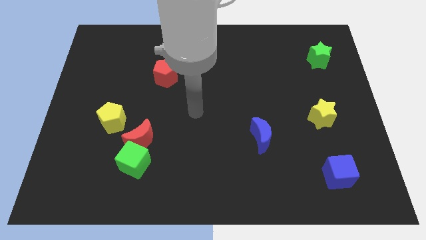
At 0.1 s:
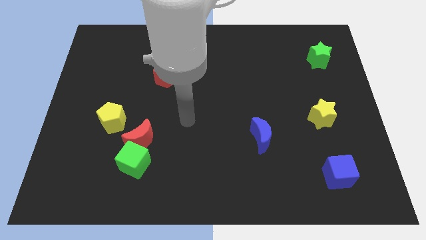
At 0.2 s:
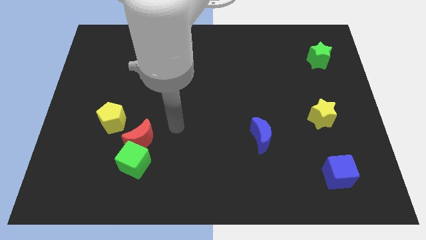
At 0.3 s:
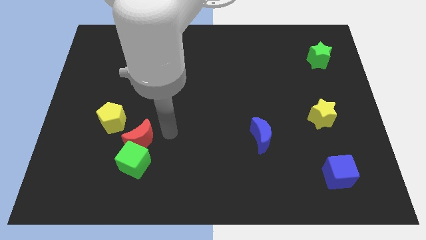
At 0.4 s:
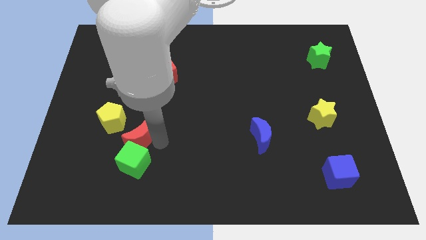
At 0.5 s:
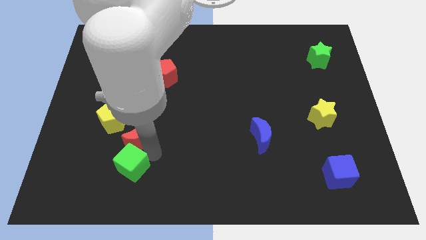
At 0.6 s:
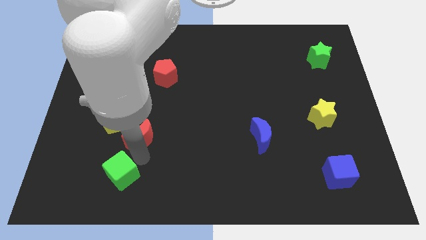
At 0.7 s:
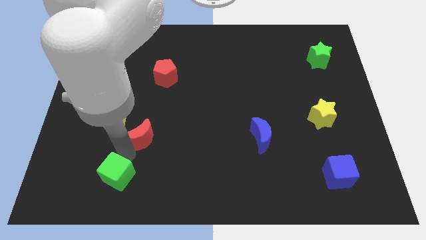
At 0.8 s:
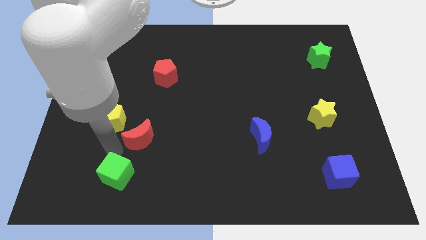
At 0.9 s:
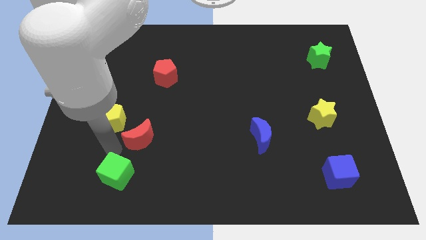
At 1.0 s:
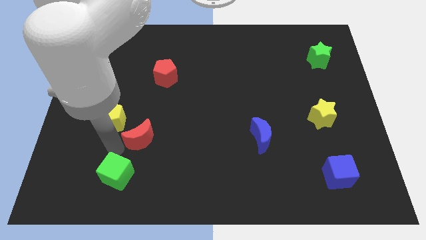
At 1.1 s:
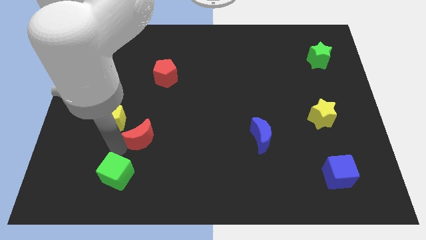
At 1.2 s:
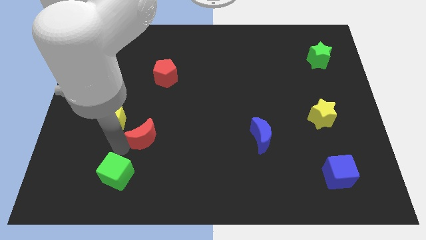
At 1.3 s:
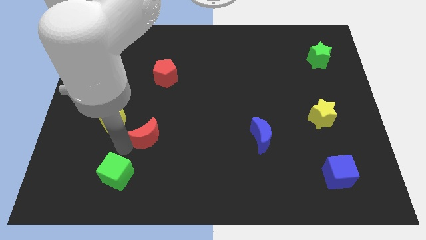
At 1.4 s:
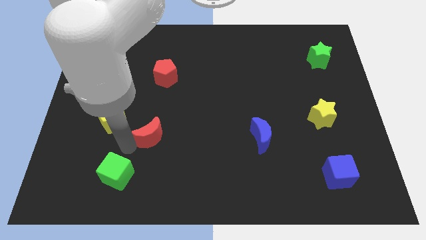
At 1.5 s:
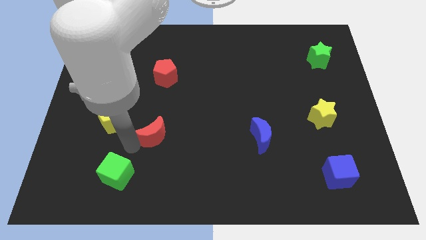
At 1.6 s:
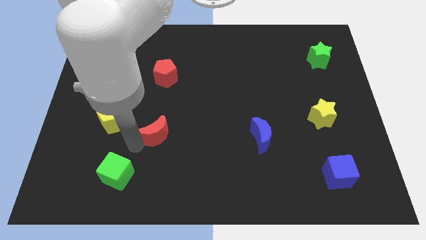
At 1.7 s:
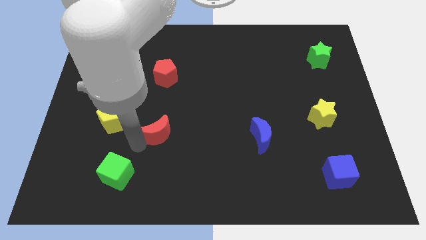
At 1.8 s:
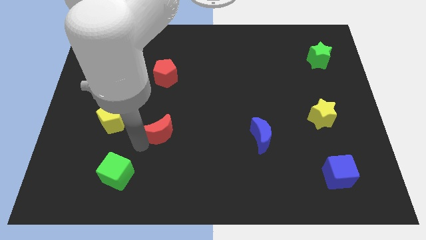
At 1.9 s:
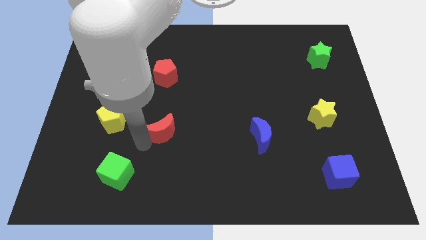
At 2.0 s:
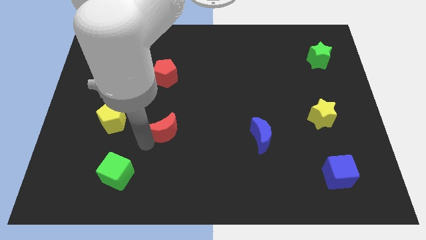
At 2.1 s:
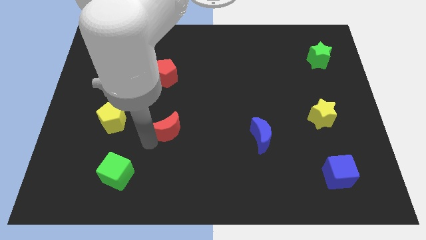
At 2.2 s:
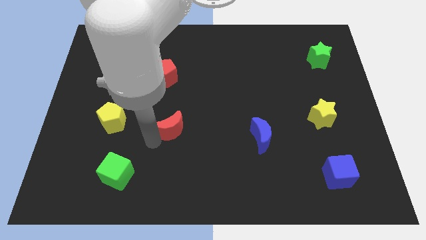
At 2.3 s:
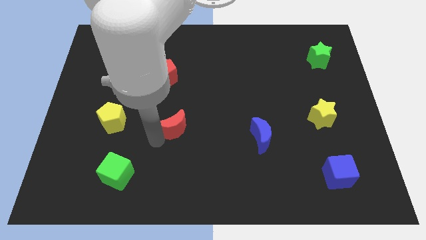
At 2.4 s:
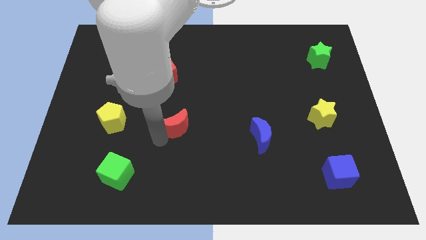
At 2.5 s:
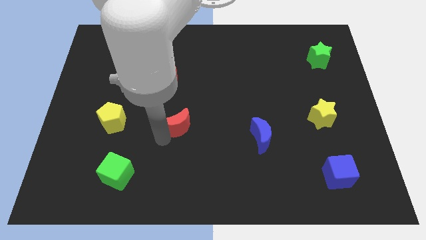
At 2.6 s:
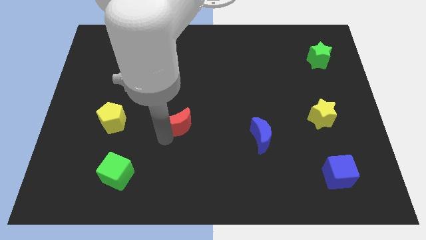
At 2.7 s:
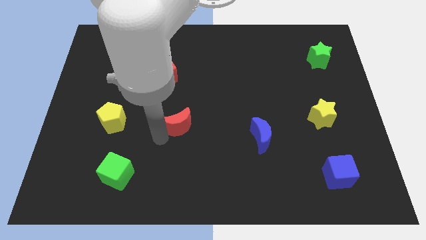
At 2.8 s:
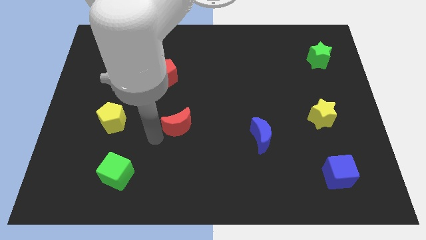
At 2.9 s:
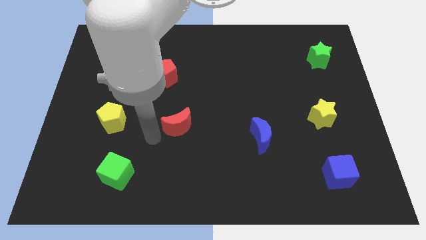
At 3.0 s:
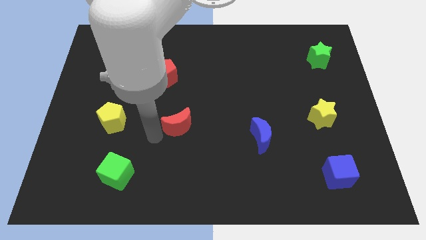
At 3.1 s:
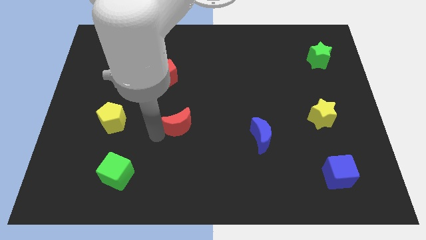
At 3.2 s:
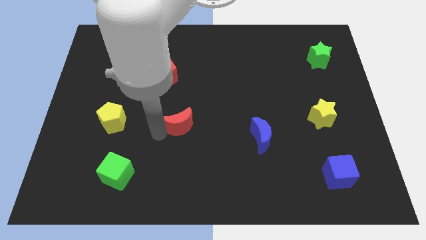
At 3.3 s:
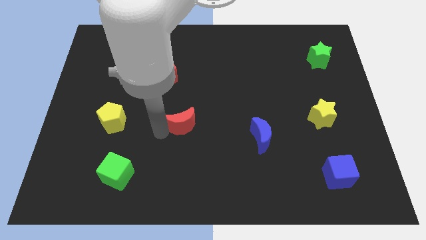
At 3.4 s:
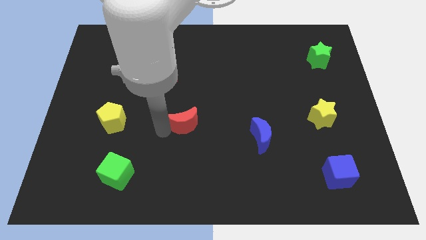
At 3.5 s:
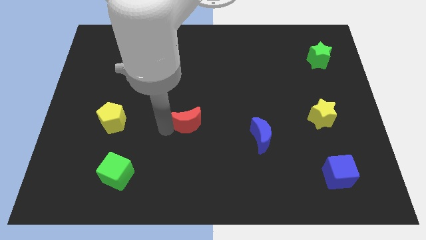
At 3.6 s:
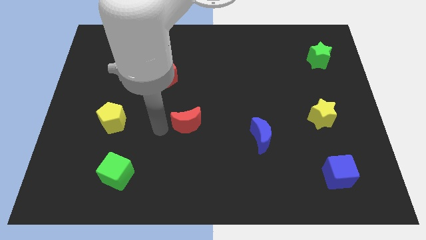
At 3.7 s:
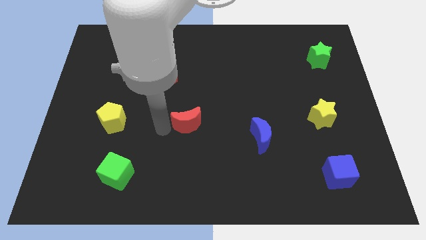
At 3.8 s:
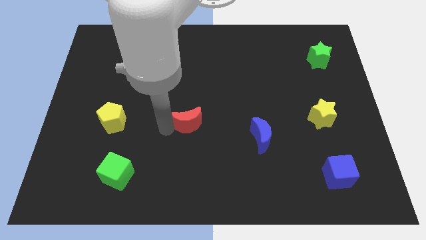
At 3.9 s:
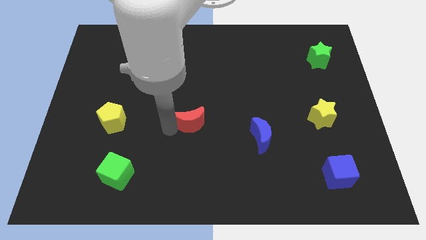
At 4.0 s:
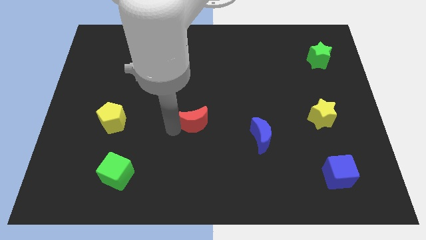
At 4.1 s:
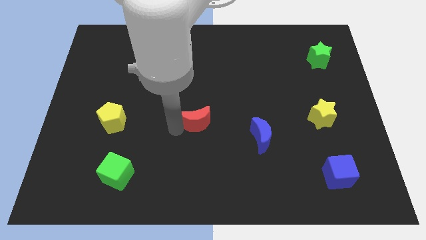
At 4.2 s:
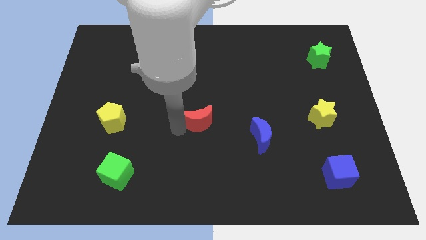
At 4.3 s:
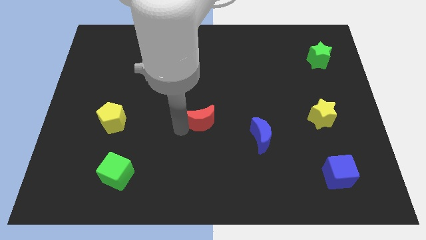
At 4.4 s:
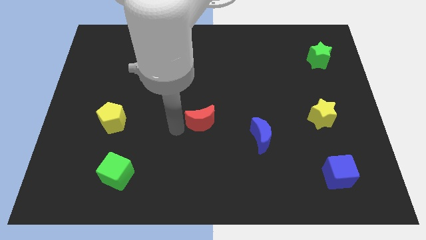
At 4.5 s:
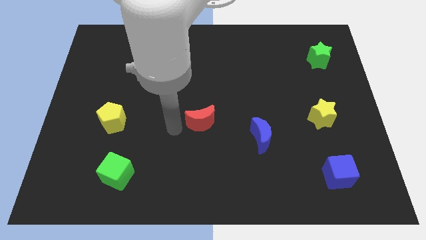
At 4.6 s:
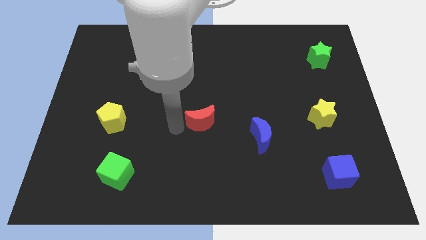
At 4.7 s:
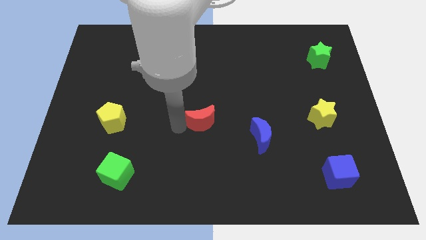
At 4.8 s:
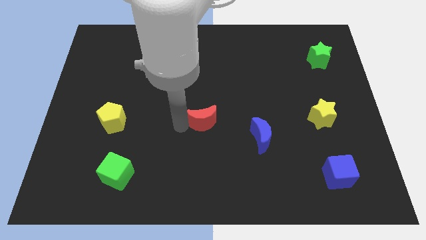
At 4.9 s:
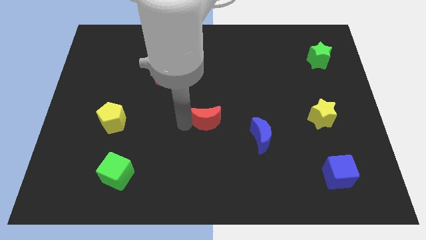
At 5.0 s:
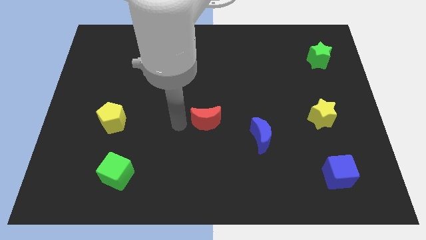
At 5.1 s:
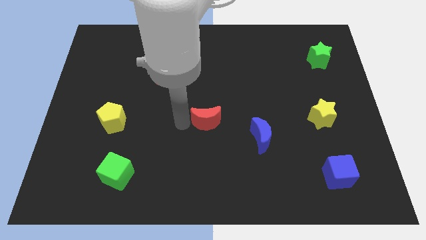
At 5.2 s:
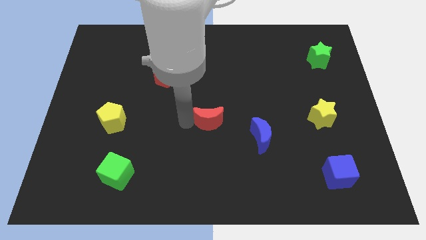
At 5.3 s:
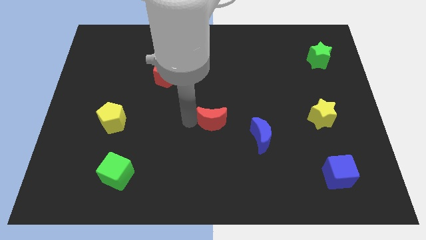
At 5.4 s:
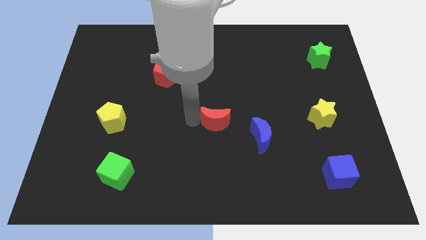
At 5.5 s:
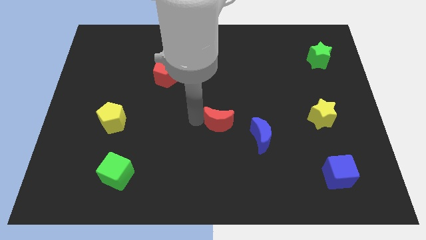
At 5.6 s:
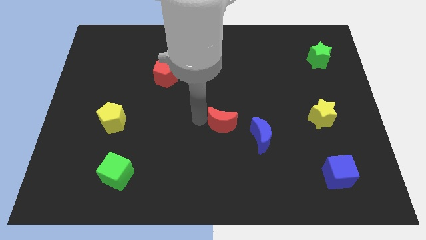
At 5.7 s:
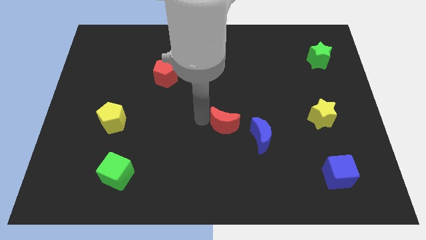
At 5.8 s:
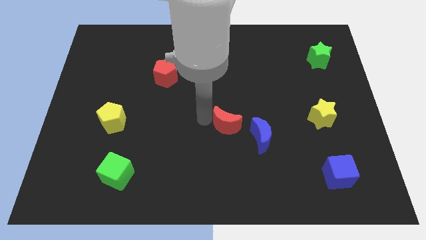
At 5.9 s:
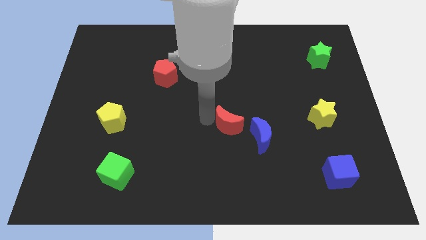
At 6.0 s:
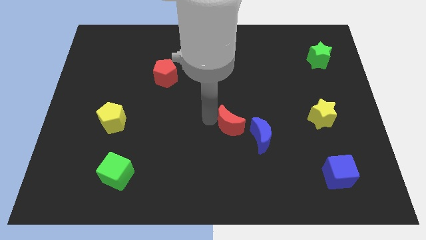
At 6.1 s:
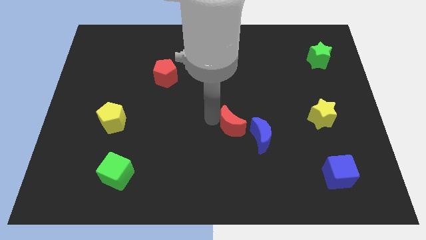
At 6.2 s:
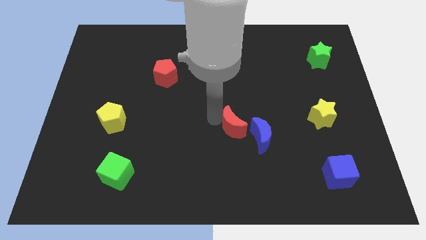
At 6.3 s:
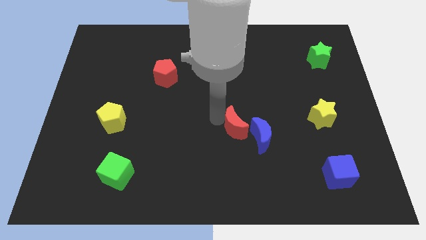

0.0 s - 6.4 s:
push the red moon to the right

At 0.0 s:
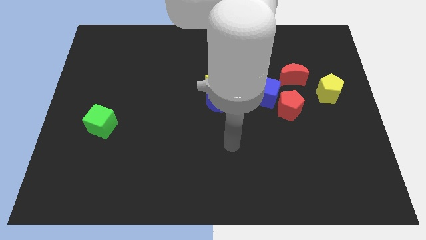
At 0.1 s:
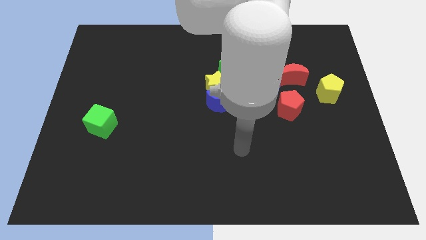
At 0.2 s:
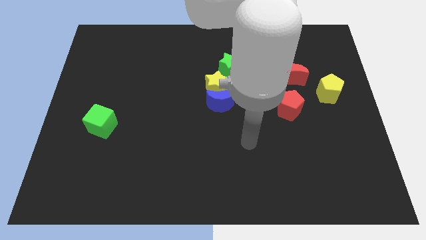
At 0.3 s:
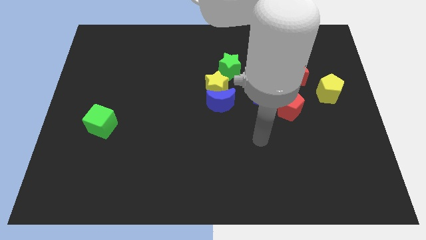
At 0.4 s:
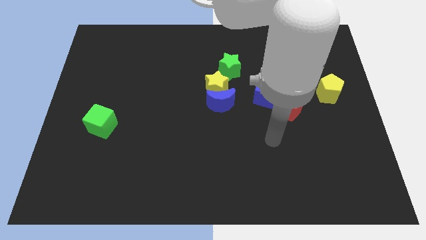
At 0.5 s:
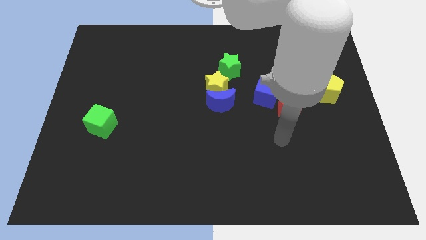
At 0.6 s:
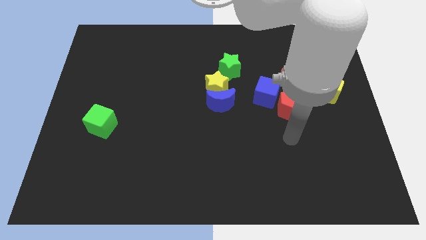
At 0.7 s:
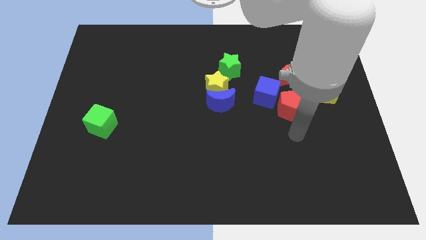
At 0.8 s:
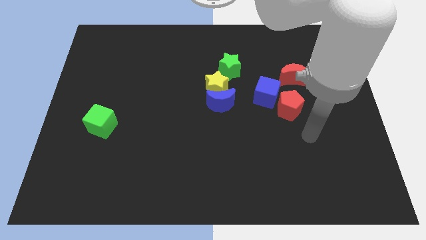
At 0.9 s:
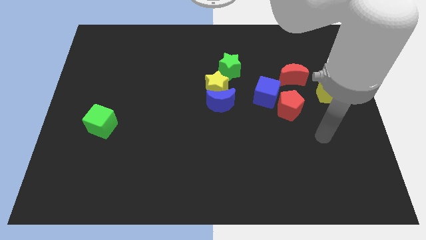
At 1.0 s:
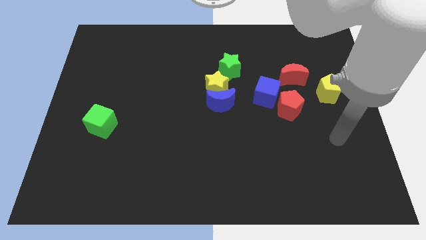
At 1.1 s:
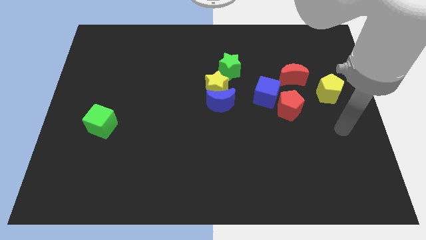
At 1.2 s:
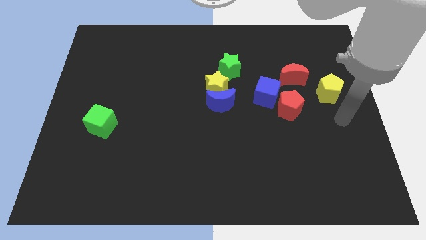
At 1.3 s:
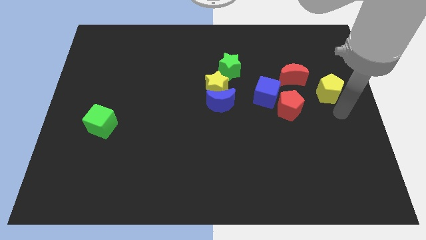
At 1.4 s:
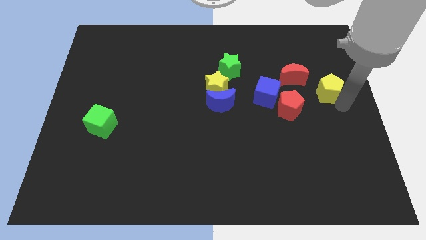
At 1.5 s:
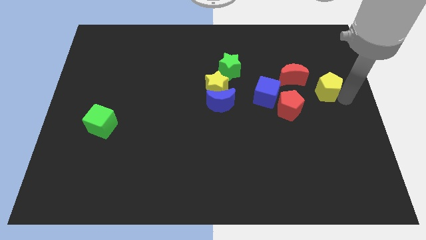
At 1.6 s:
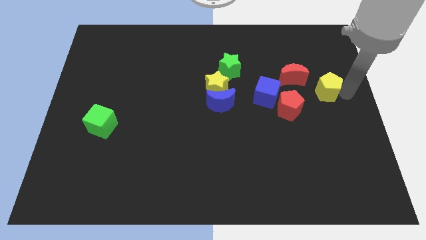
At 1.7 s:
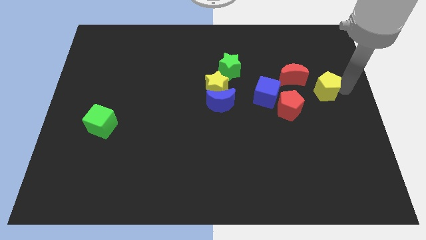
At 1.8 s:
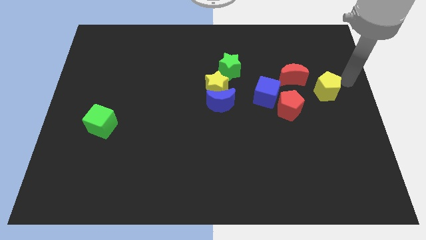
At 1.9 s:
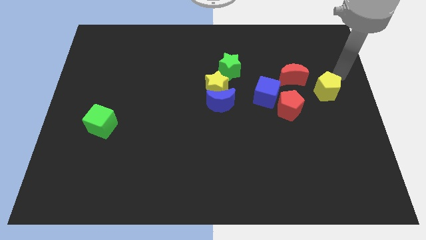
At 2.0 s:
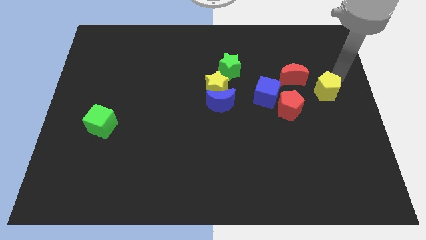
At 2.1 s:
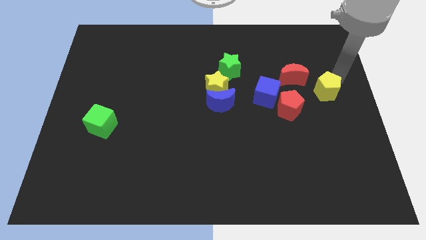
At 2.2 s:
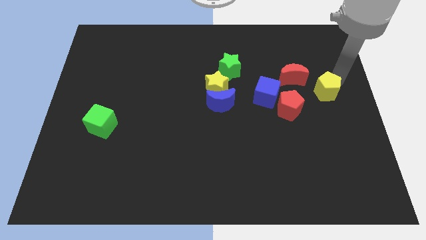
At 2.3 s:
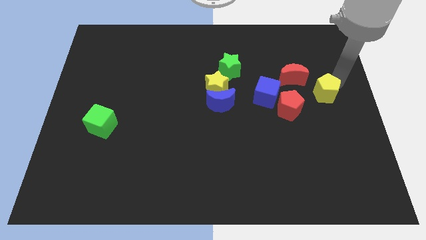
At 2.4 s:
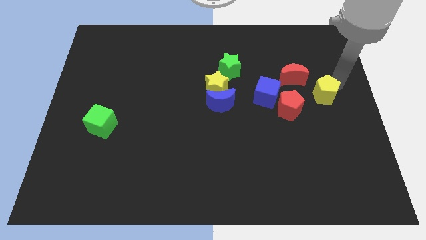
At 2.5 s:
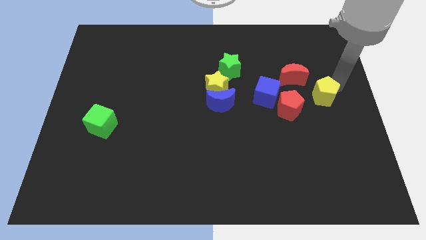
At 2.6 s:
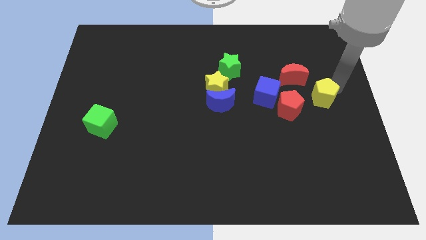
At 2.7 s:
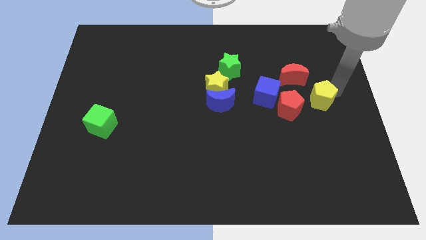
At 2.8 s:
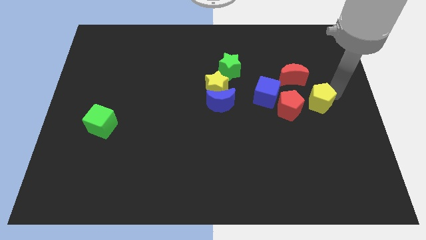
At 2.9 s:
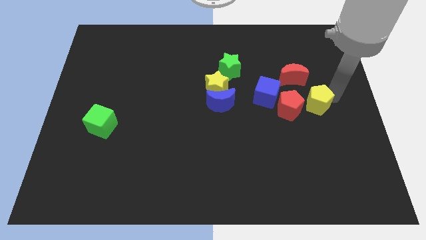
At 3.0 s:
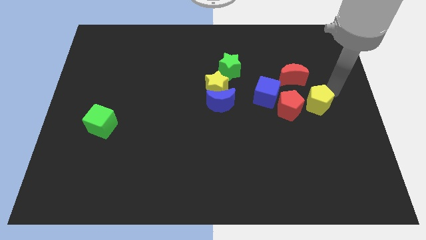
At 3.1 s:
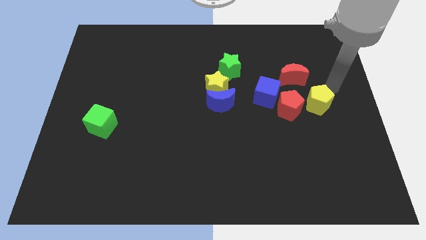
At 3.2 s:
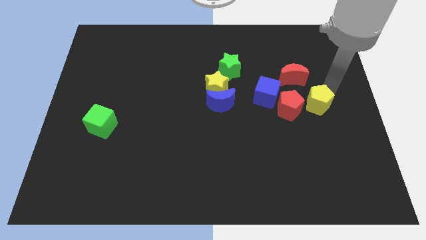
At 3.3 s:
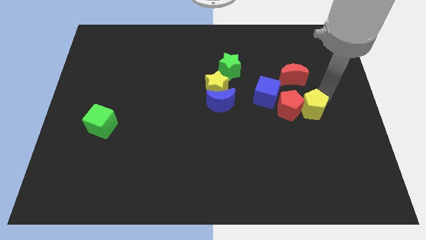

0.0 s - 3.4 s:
move the yellow pentagon down and then to the left a little bit
